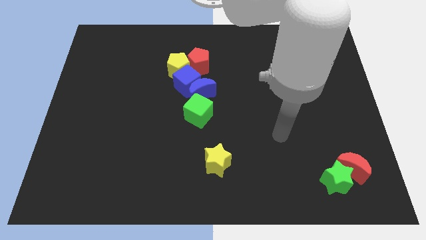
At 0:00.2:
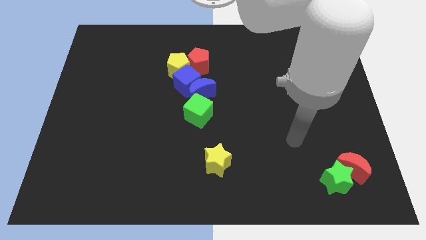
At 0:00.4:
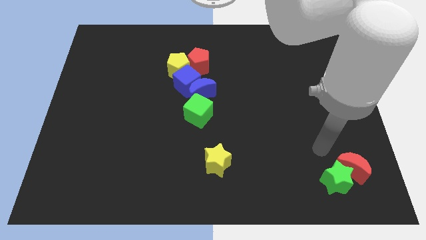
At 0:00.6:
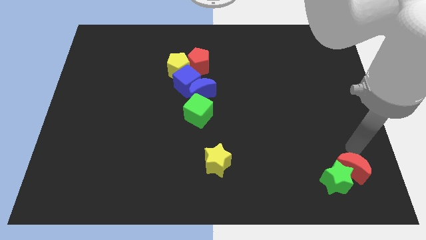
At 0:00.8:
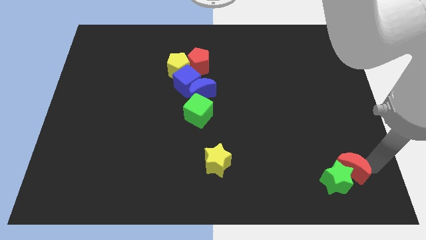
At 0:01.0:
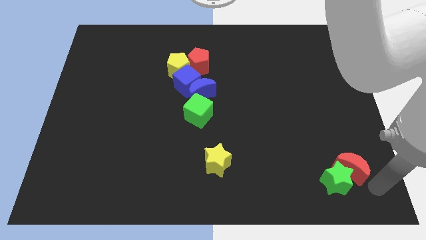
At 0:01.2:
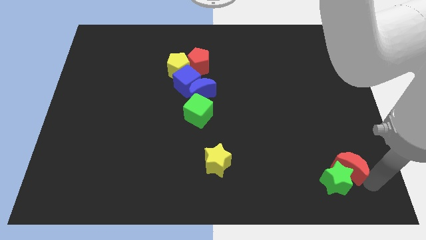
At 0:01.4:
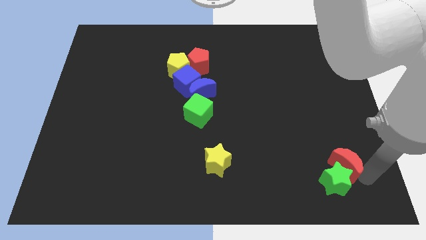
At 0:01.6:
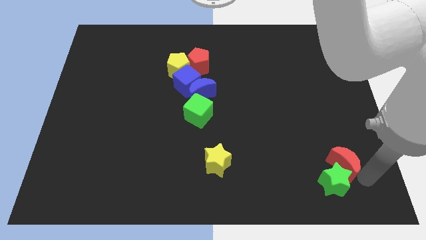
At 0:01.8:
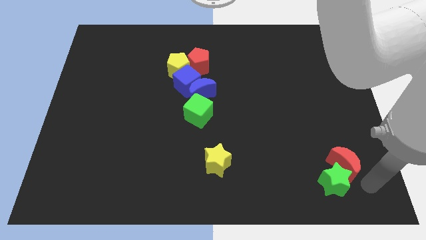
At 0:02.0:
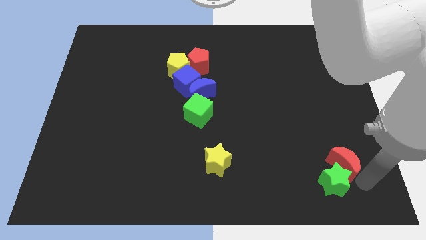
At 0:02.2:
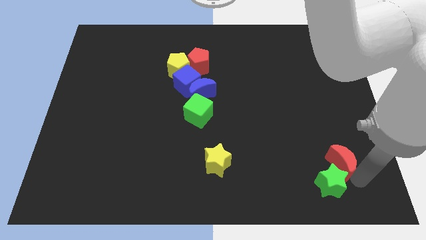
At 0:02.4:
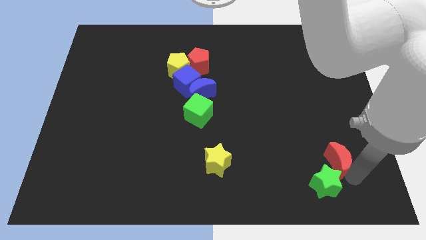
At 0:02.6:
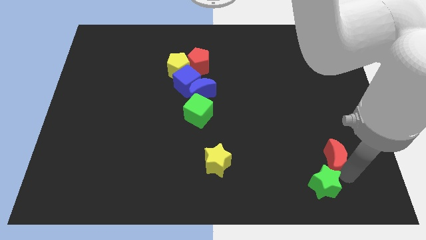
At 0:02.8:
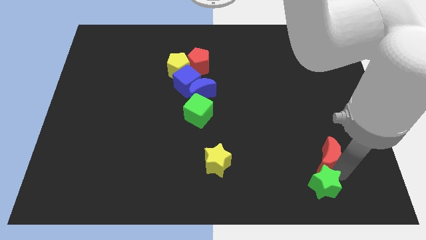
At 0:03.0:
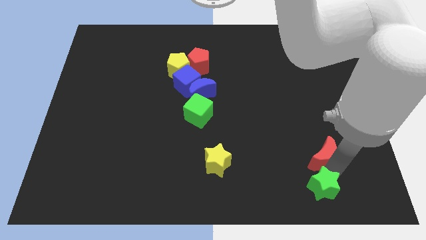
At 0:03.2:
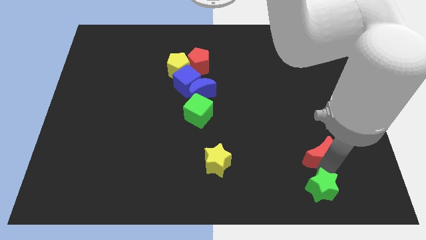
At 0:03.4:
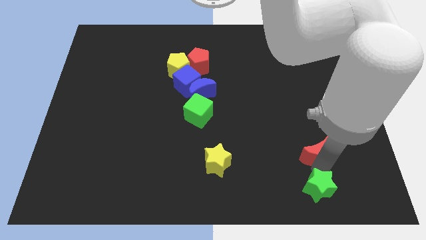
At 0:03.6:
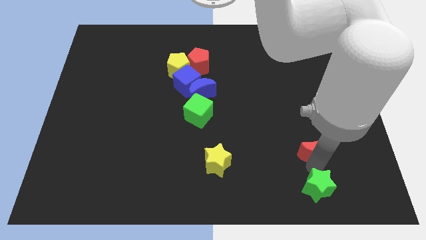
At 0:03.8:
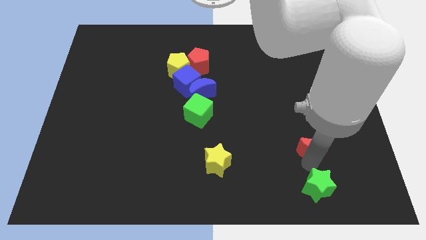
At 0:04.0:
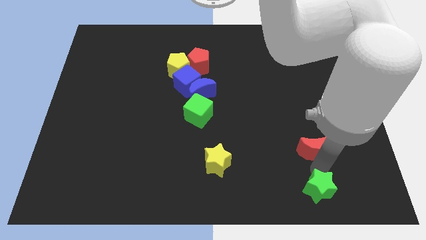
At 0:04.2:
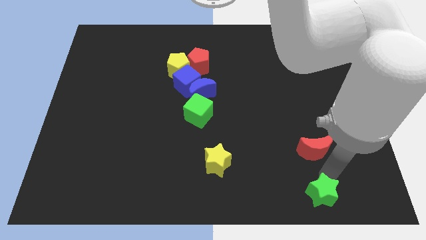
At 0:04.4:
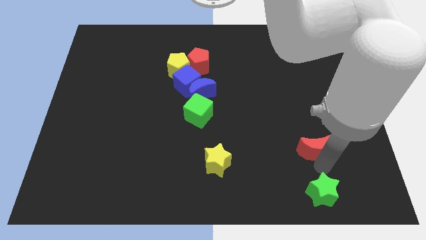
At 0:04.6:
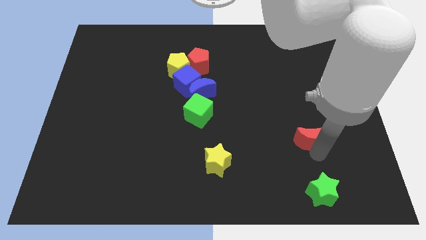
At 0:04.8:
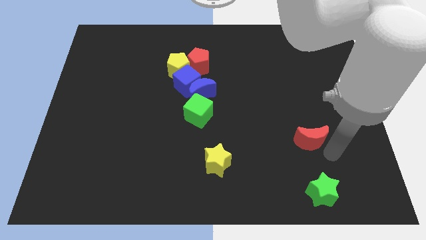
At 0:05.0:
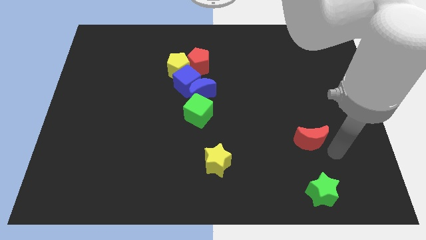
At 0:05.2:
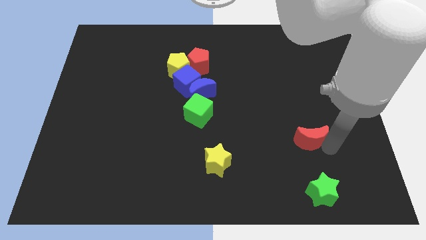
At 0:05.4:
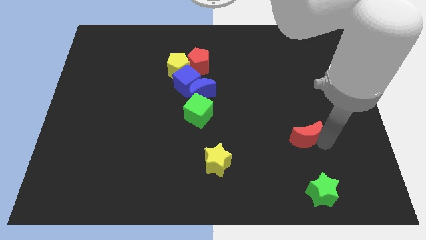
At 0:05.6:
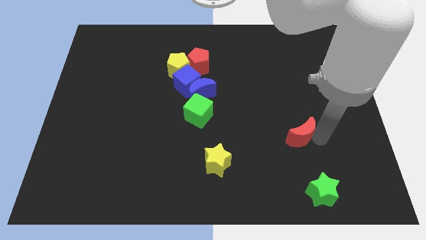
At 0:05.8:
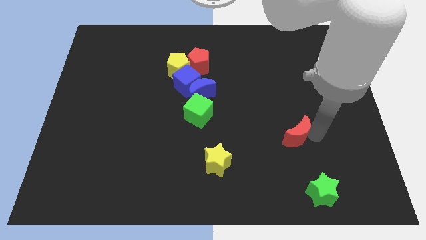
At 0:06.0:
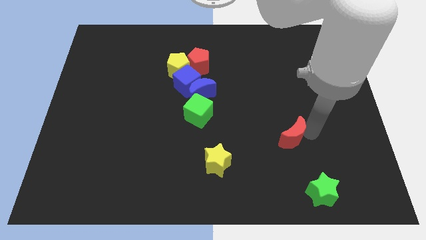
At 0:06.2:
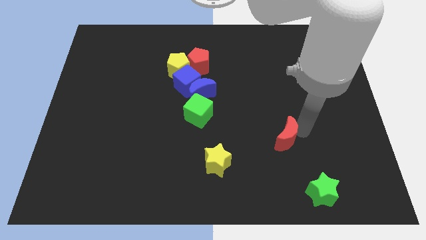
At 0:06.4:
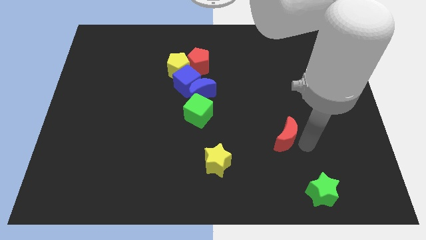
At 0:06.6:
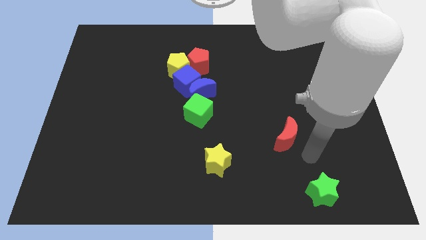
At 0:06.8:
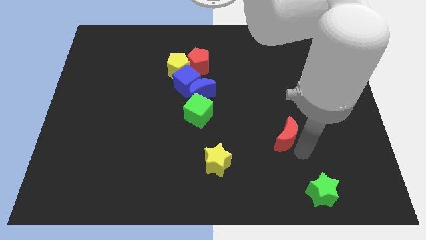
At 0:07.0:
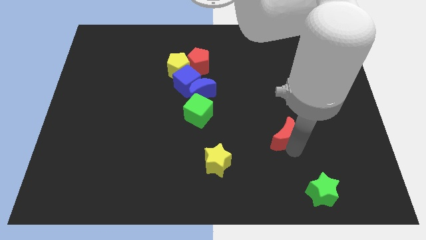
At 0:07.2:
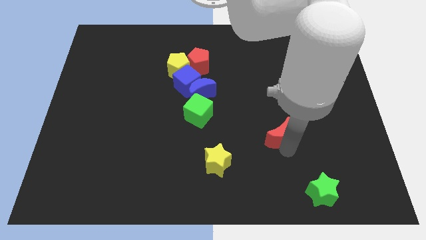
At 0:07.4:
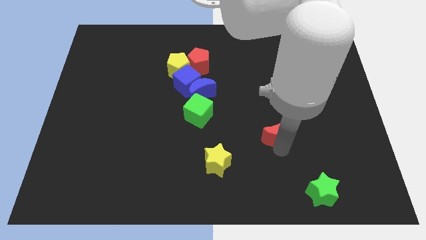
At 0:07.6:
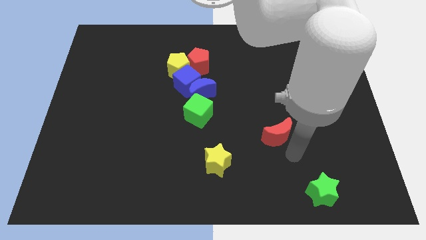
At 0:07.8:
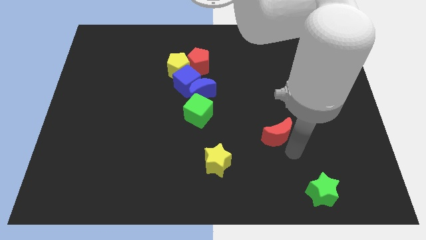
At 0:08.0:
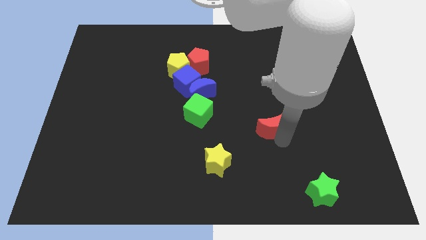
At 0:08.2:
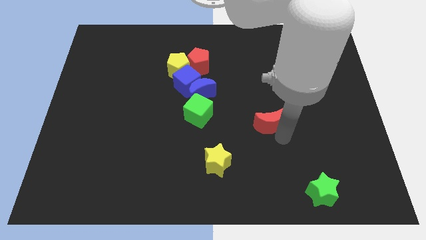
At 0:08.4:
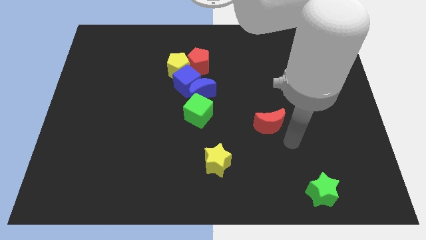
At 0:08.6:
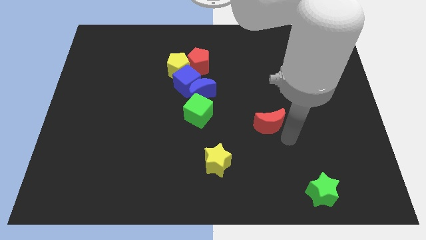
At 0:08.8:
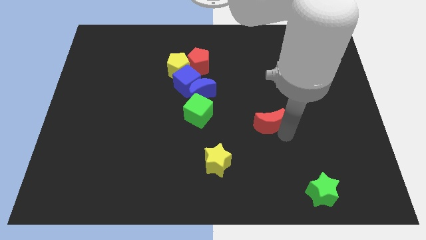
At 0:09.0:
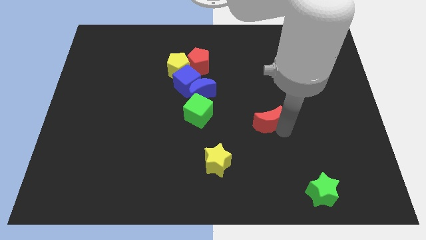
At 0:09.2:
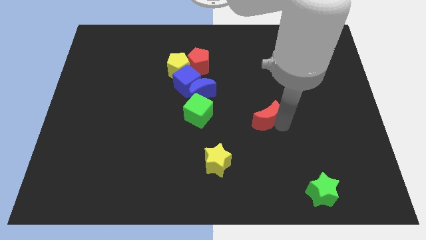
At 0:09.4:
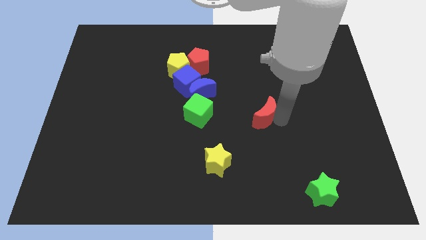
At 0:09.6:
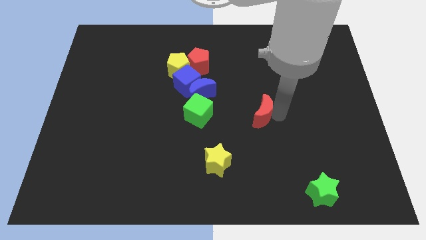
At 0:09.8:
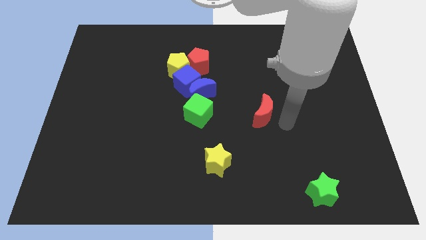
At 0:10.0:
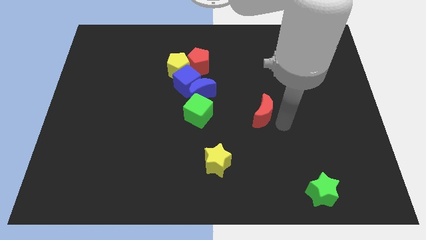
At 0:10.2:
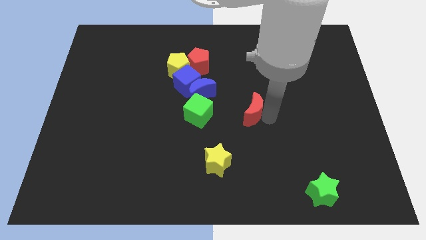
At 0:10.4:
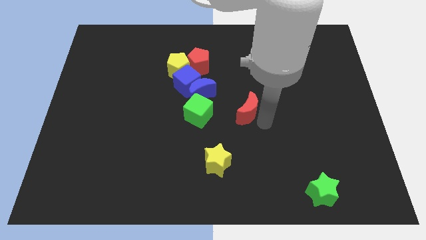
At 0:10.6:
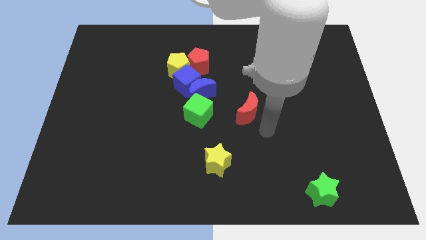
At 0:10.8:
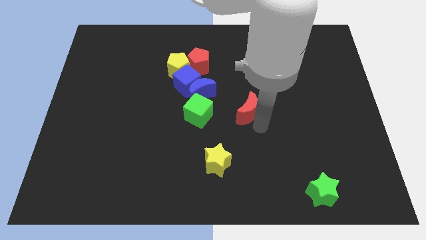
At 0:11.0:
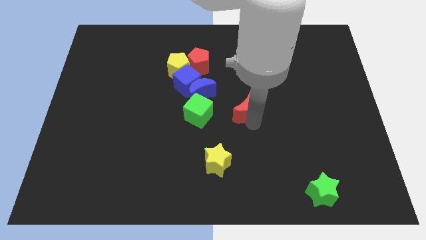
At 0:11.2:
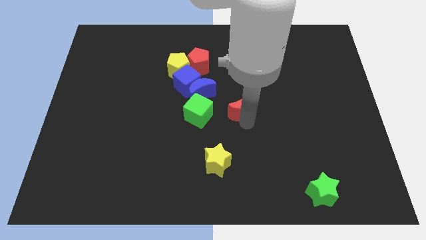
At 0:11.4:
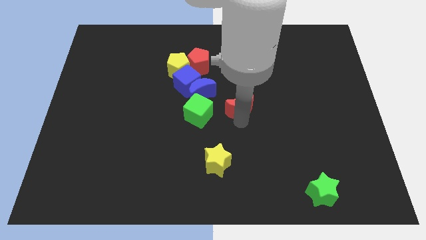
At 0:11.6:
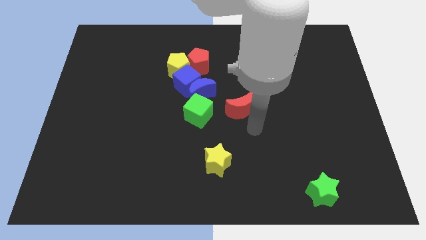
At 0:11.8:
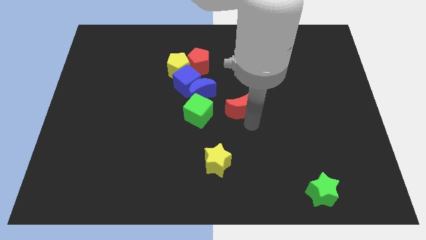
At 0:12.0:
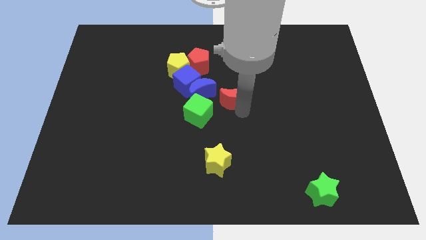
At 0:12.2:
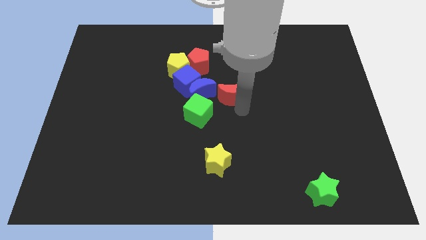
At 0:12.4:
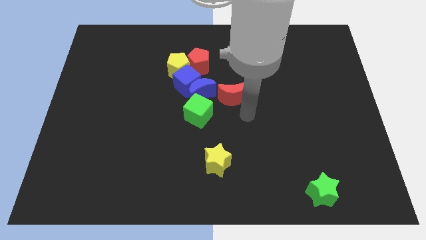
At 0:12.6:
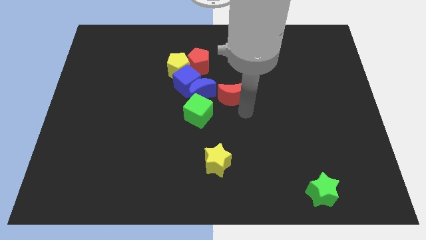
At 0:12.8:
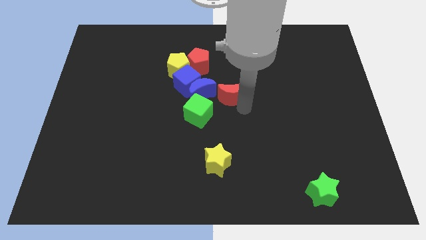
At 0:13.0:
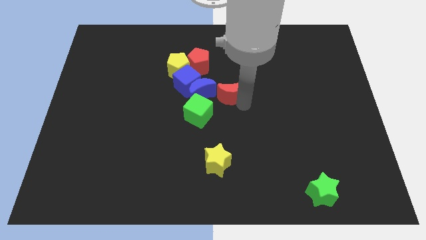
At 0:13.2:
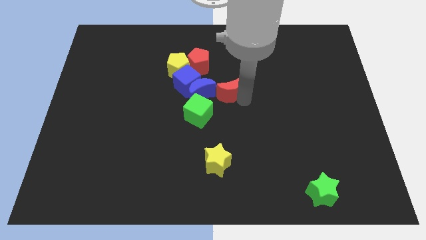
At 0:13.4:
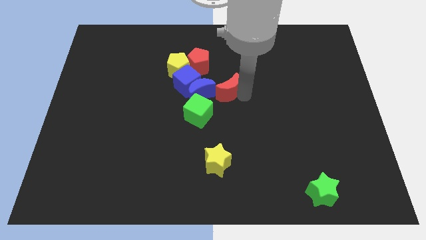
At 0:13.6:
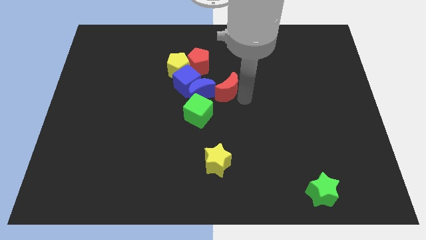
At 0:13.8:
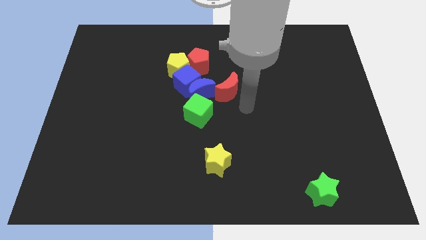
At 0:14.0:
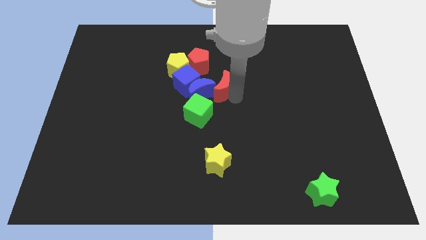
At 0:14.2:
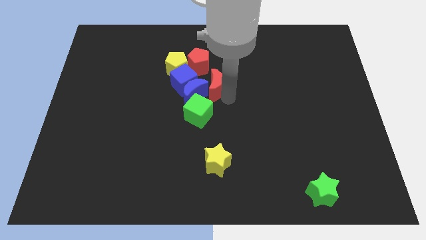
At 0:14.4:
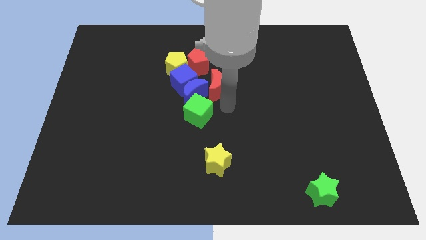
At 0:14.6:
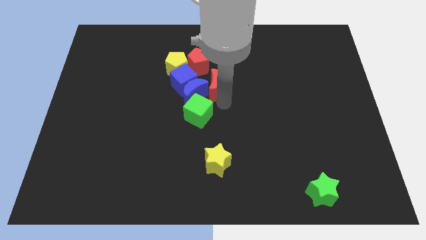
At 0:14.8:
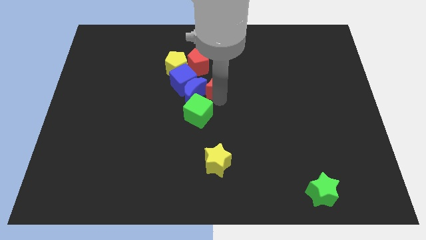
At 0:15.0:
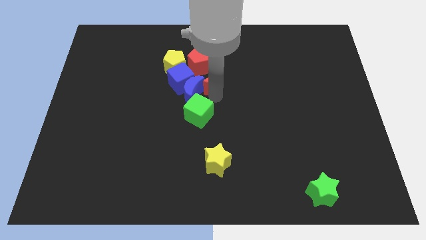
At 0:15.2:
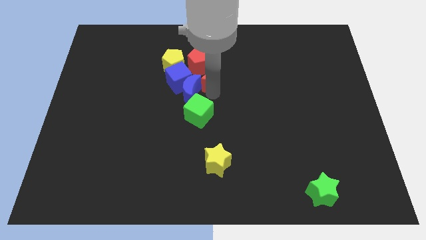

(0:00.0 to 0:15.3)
put the red moon to the red pentagon
